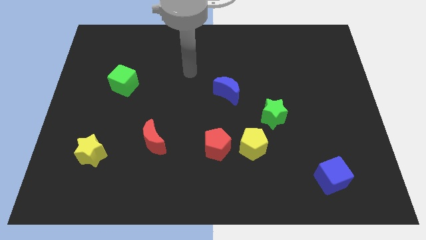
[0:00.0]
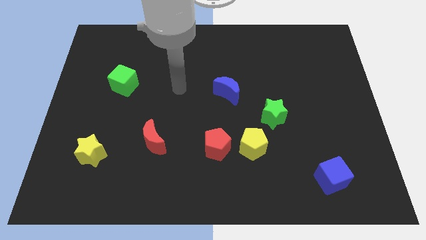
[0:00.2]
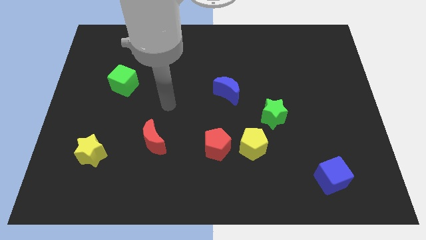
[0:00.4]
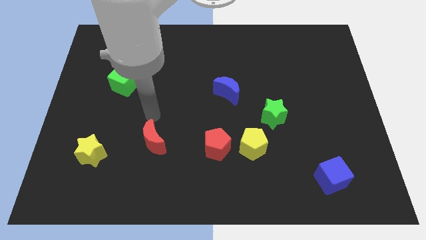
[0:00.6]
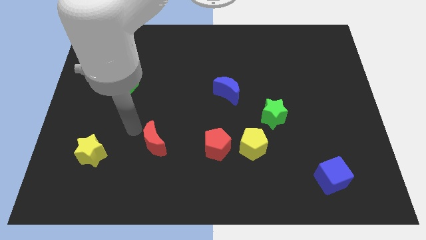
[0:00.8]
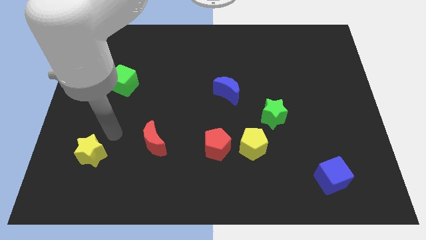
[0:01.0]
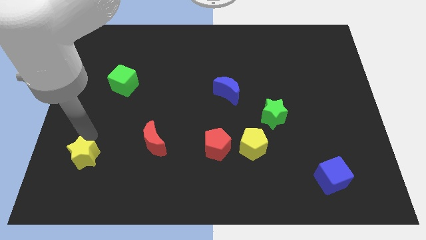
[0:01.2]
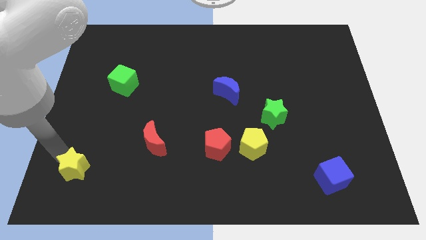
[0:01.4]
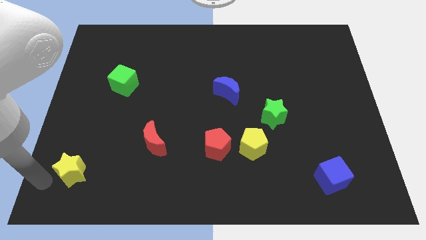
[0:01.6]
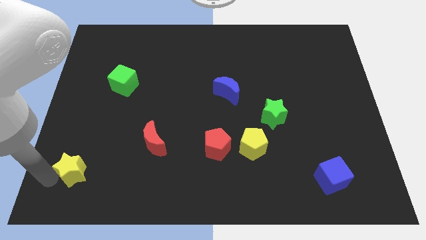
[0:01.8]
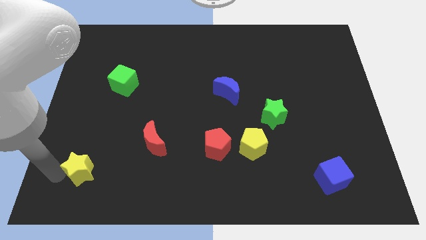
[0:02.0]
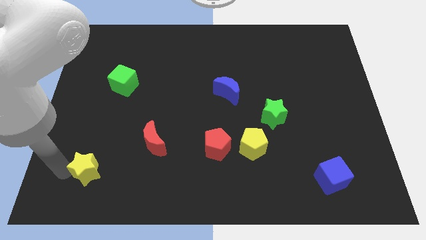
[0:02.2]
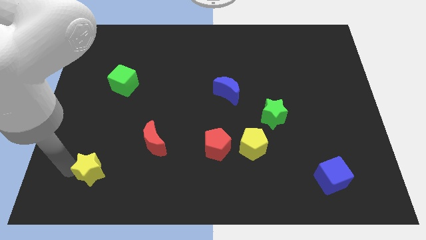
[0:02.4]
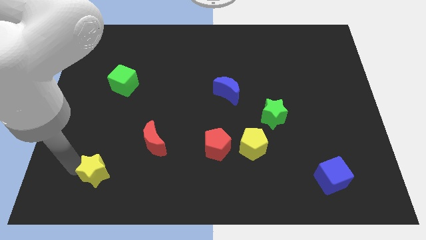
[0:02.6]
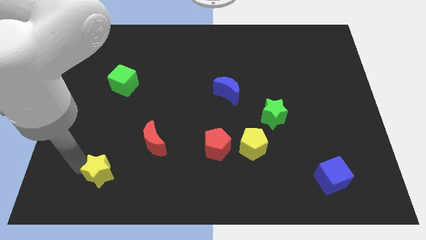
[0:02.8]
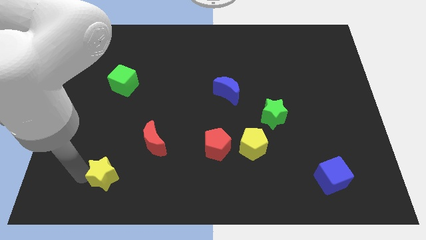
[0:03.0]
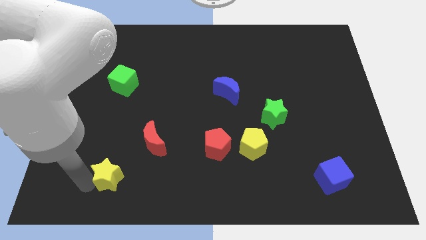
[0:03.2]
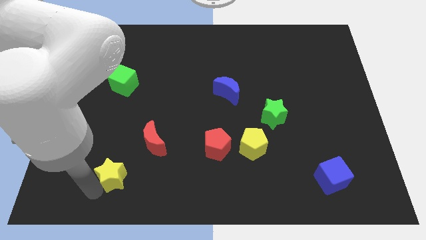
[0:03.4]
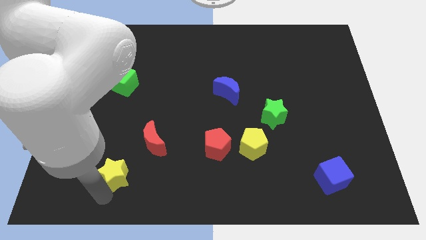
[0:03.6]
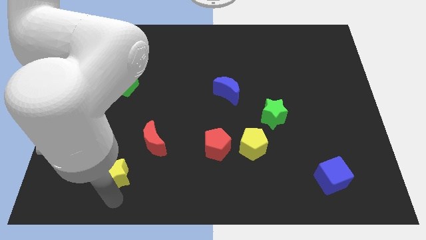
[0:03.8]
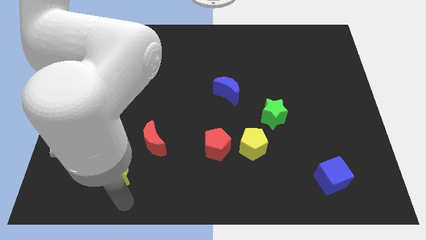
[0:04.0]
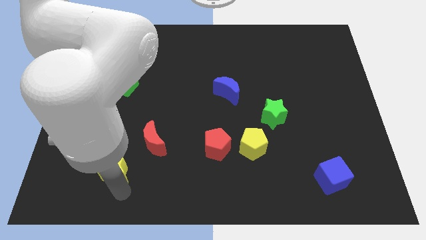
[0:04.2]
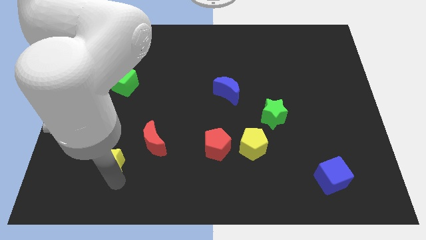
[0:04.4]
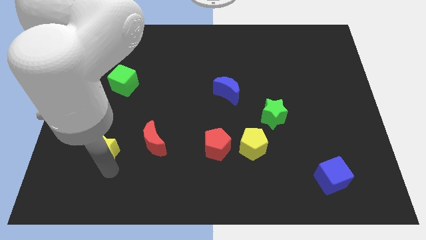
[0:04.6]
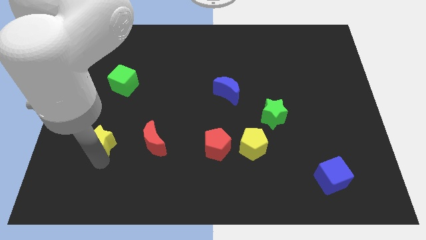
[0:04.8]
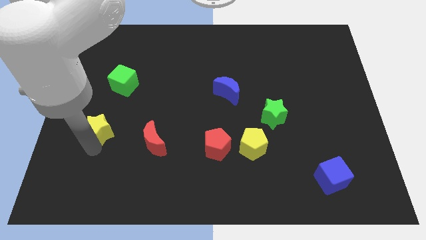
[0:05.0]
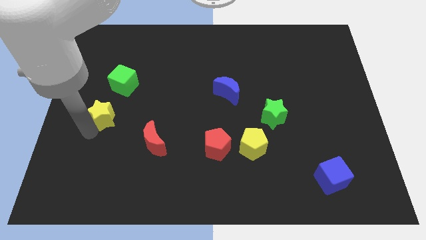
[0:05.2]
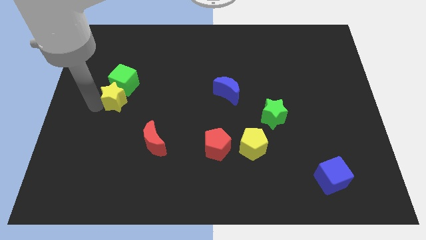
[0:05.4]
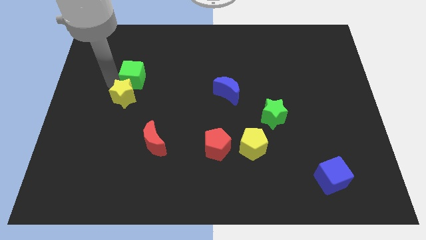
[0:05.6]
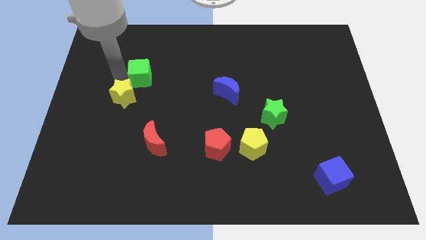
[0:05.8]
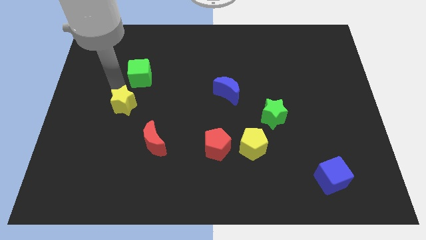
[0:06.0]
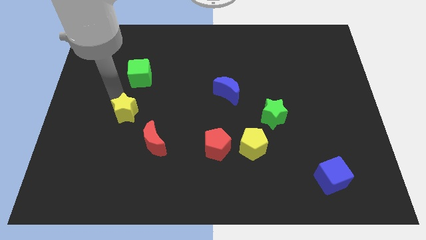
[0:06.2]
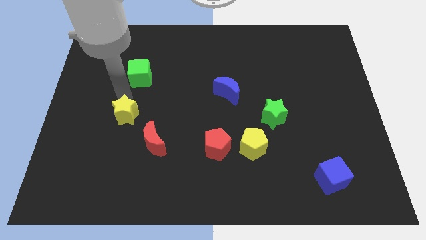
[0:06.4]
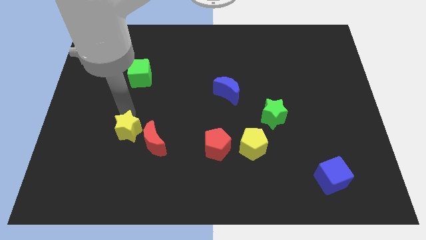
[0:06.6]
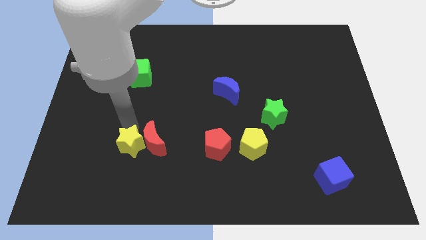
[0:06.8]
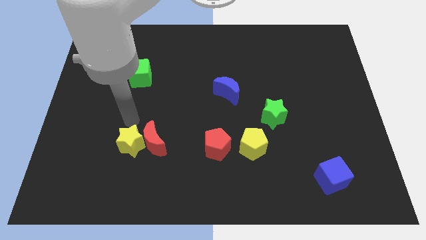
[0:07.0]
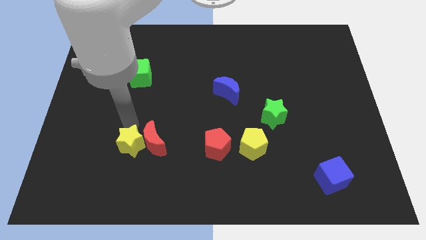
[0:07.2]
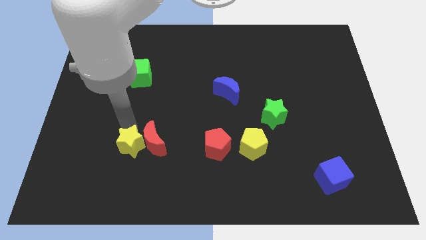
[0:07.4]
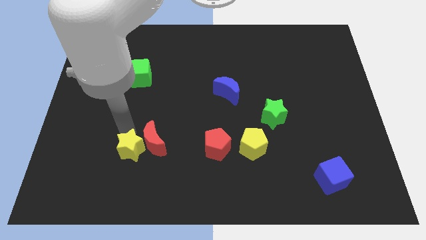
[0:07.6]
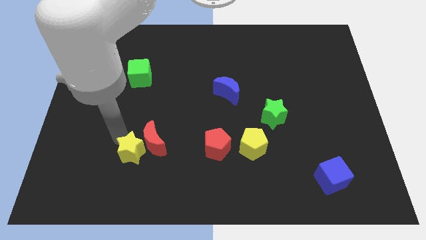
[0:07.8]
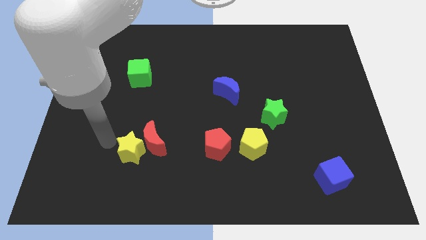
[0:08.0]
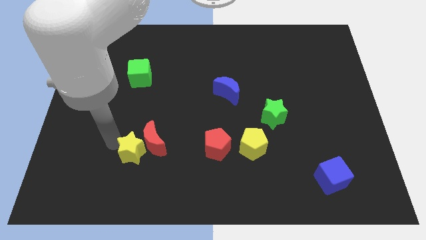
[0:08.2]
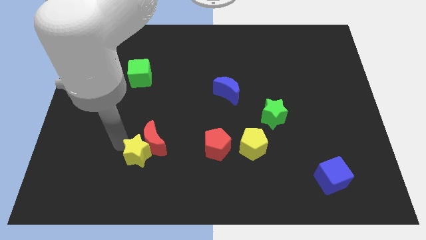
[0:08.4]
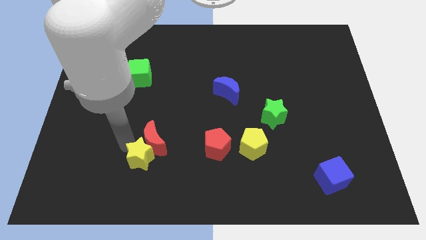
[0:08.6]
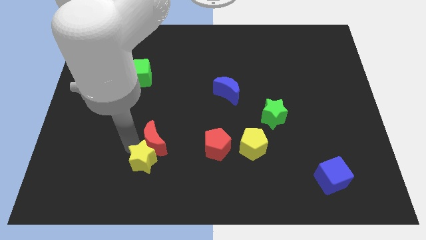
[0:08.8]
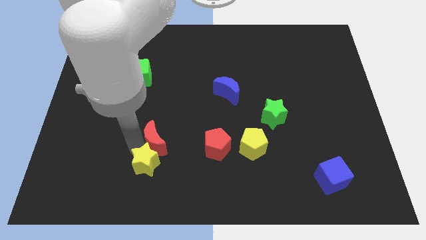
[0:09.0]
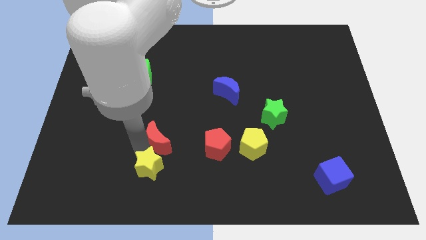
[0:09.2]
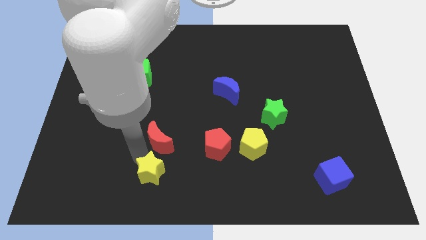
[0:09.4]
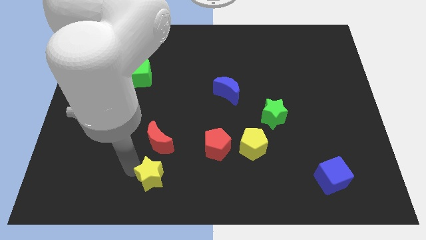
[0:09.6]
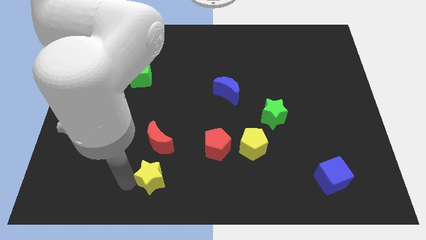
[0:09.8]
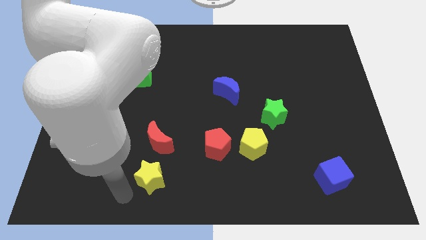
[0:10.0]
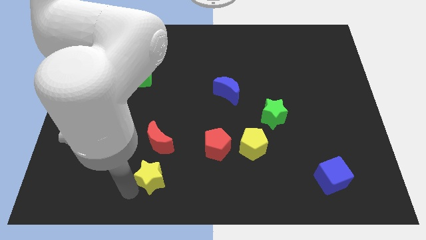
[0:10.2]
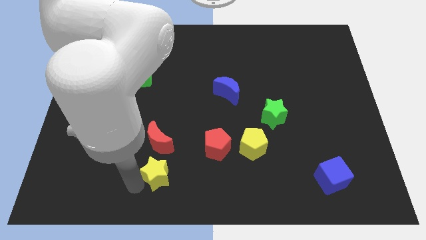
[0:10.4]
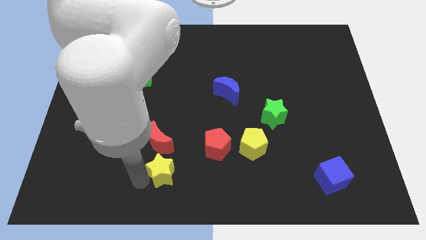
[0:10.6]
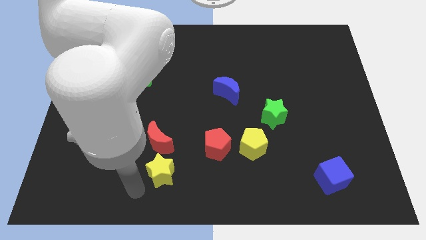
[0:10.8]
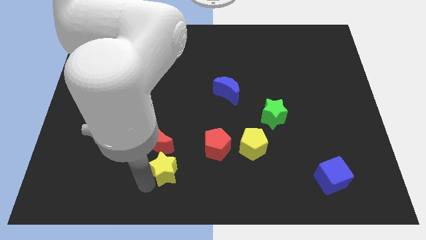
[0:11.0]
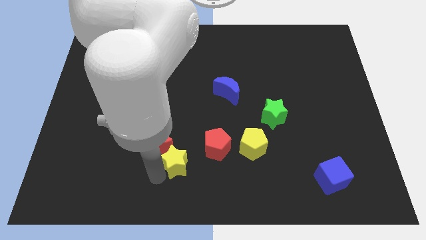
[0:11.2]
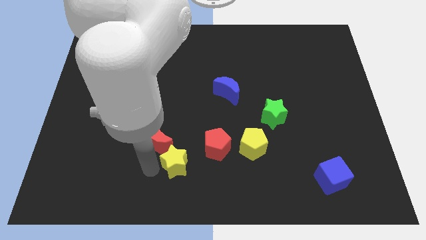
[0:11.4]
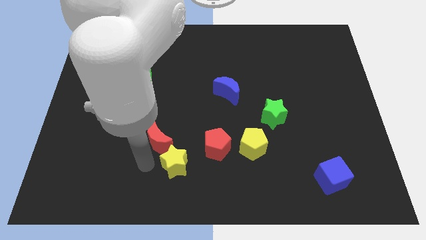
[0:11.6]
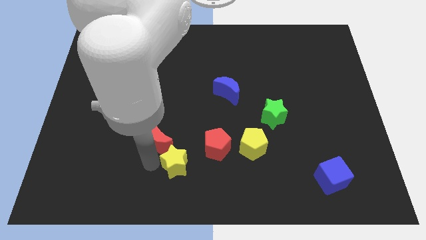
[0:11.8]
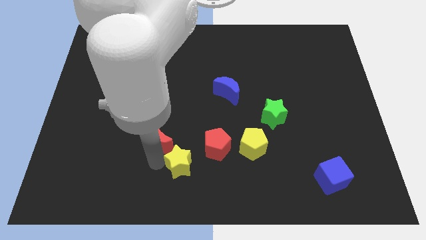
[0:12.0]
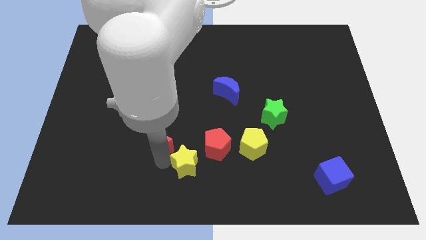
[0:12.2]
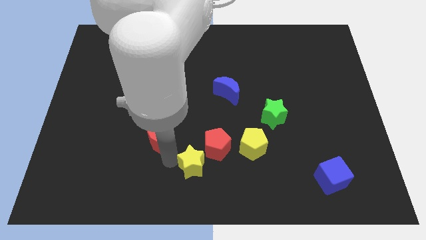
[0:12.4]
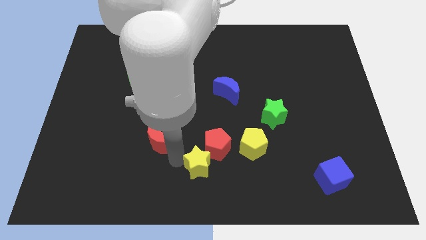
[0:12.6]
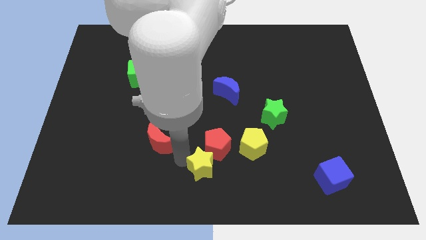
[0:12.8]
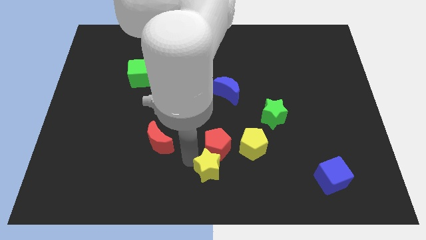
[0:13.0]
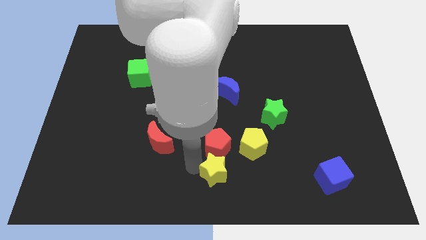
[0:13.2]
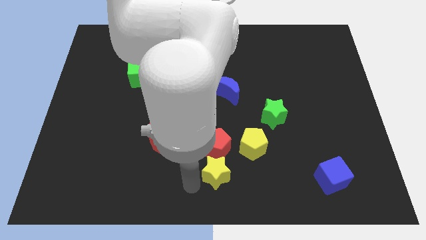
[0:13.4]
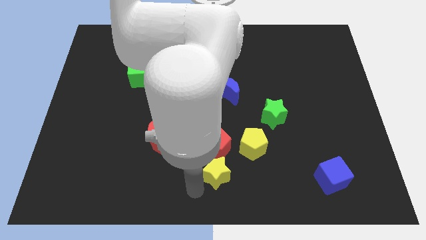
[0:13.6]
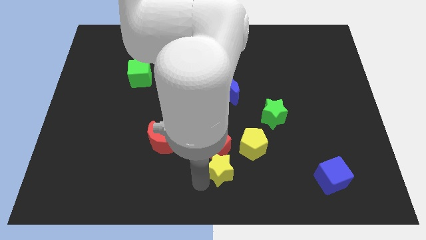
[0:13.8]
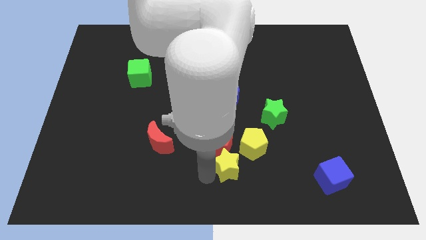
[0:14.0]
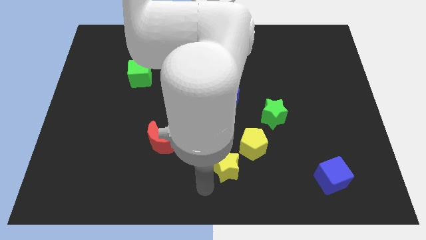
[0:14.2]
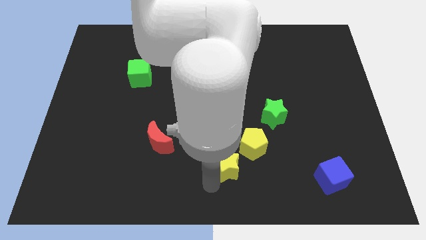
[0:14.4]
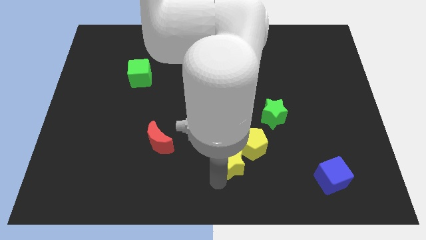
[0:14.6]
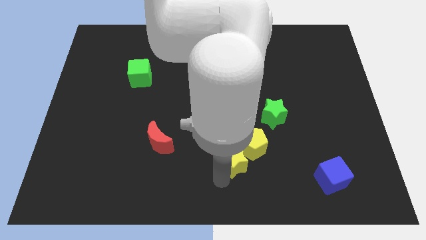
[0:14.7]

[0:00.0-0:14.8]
put the yellow star towards the yellow pentagon

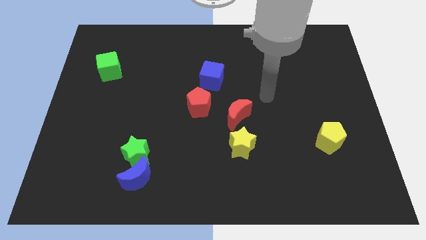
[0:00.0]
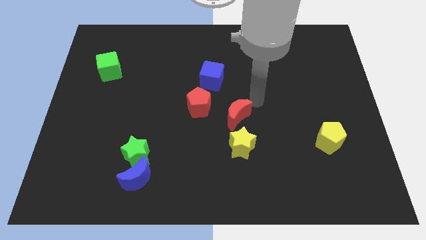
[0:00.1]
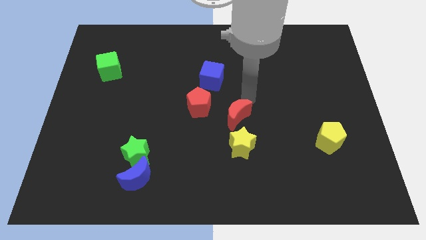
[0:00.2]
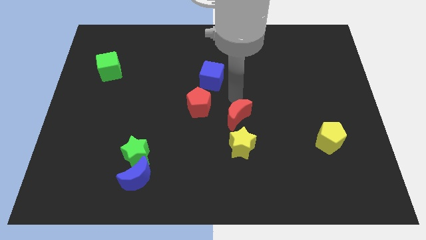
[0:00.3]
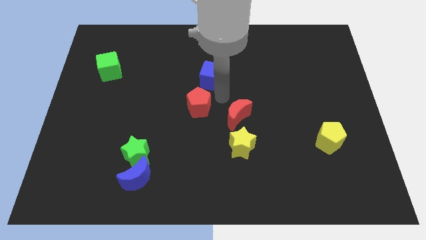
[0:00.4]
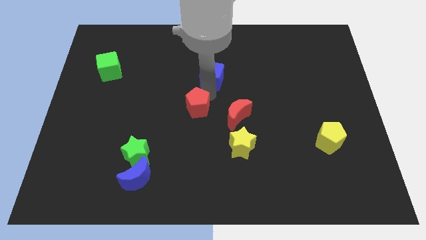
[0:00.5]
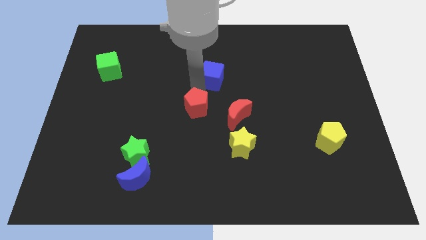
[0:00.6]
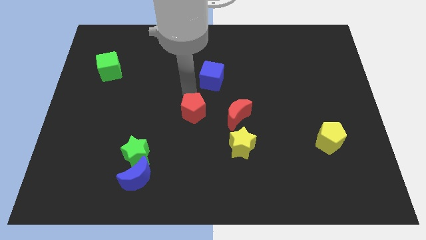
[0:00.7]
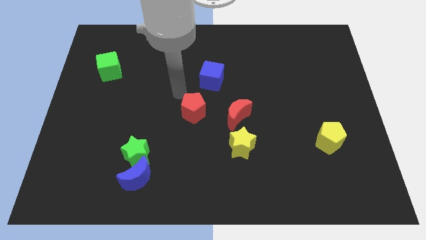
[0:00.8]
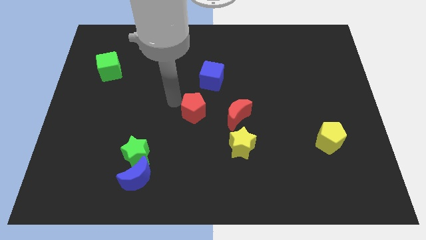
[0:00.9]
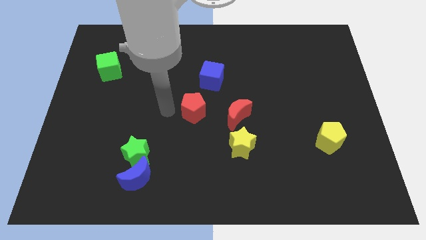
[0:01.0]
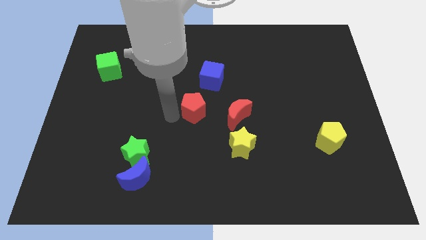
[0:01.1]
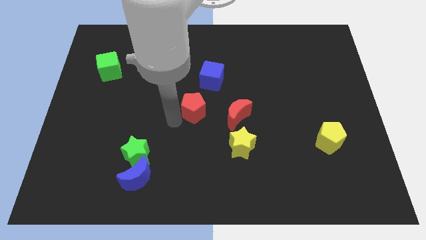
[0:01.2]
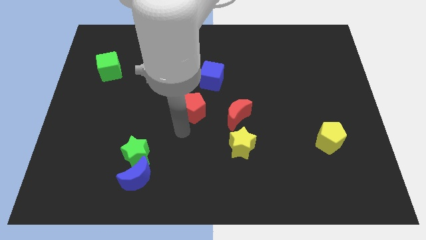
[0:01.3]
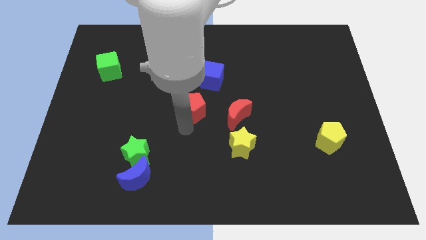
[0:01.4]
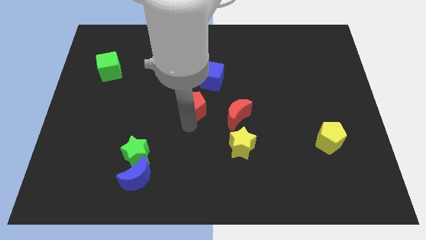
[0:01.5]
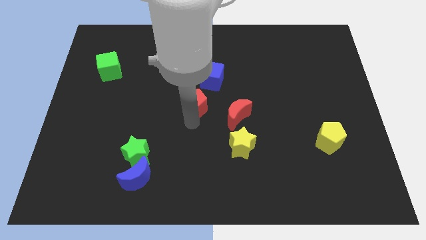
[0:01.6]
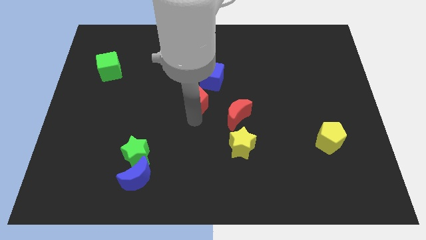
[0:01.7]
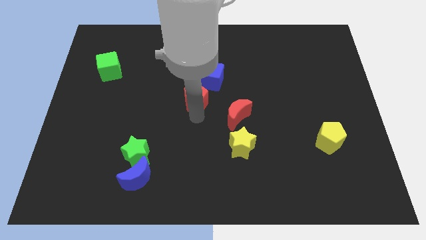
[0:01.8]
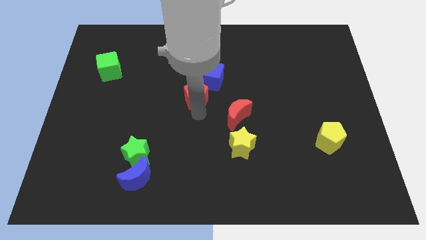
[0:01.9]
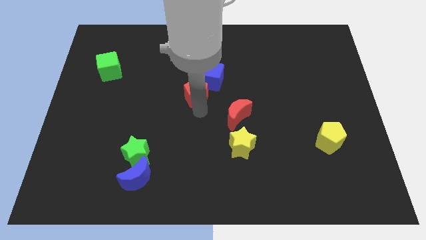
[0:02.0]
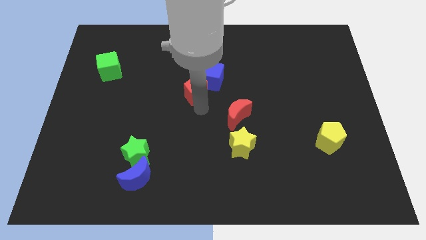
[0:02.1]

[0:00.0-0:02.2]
move the red pentagon towards the blue cube
